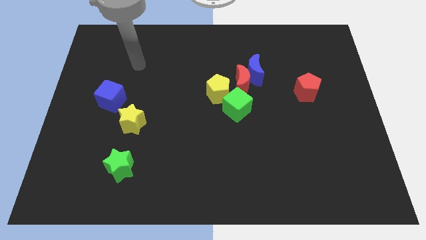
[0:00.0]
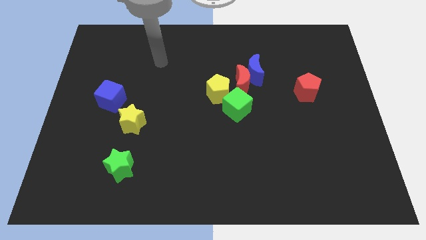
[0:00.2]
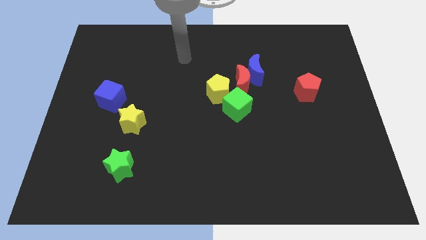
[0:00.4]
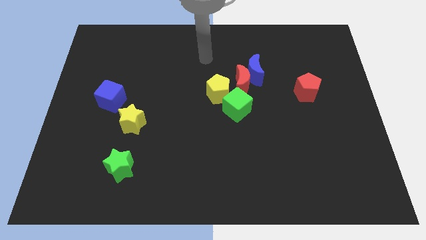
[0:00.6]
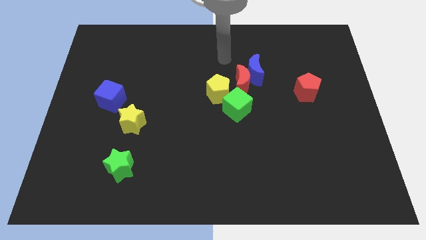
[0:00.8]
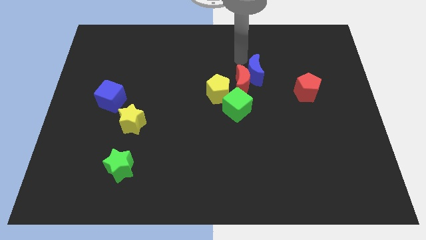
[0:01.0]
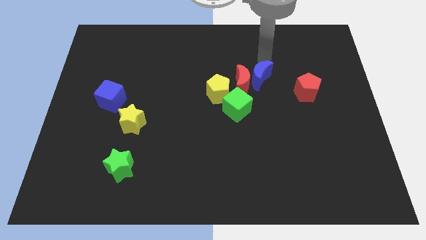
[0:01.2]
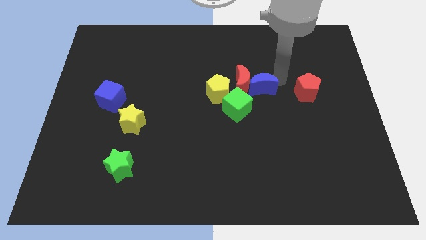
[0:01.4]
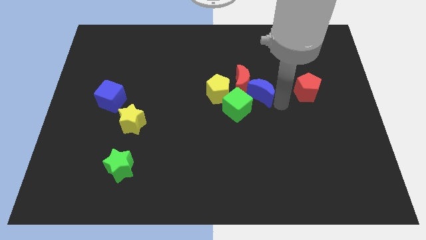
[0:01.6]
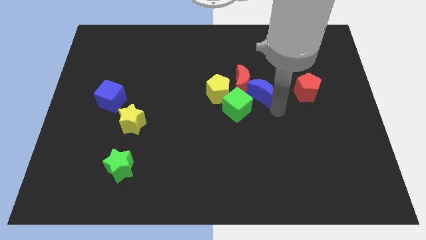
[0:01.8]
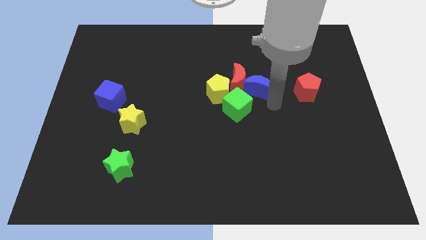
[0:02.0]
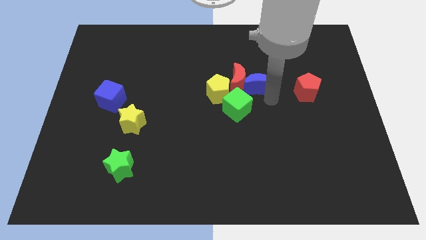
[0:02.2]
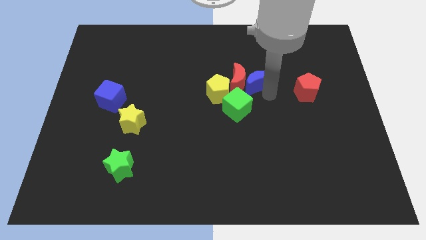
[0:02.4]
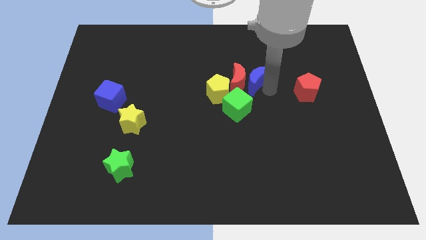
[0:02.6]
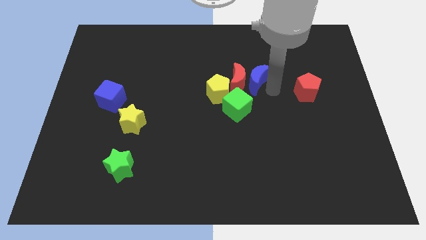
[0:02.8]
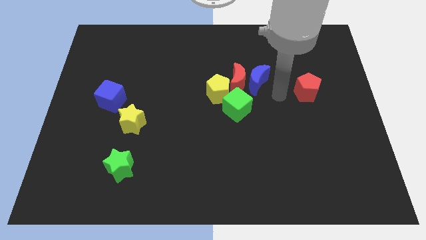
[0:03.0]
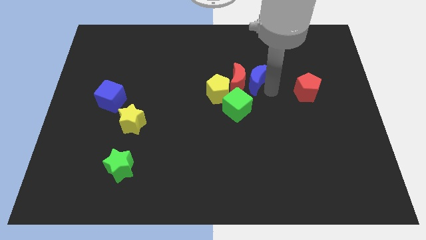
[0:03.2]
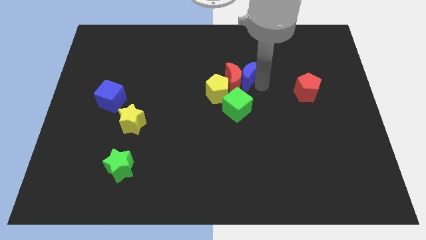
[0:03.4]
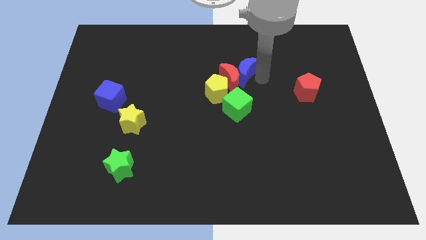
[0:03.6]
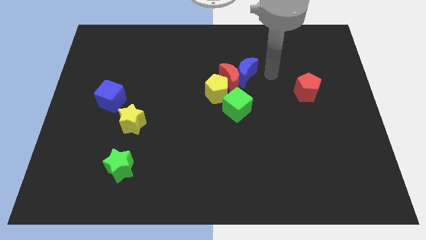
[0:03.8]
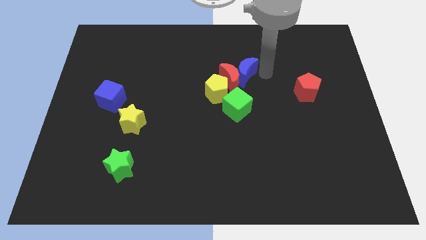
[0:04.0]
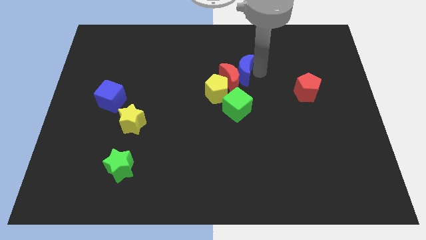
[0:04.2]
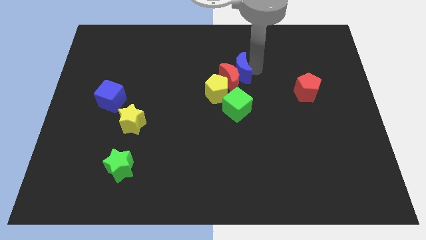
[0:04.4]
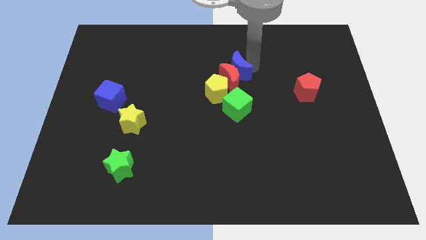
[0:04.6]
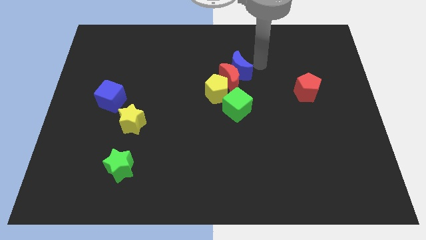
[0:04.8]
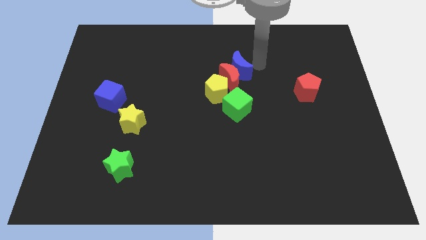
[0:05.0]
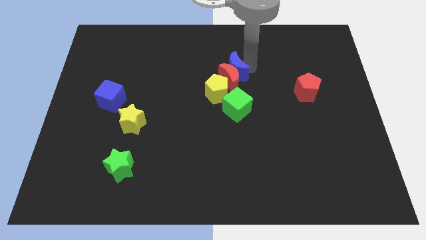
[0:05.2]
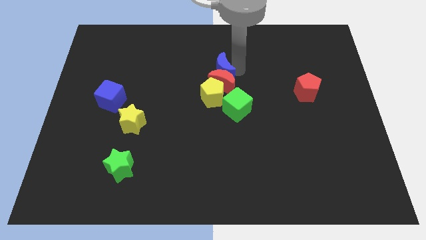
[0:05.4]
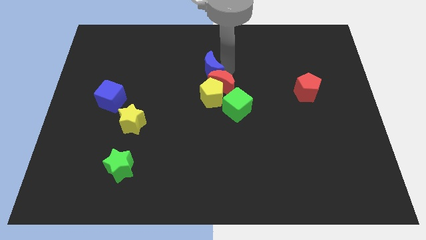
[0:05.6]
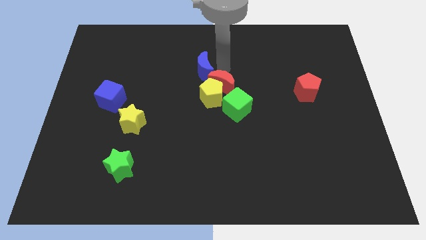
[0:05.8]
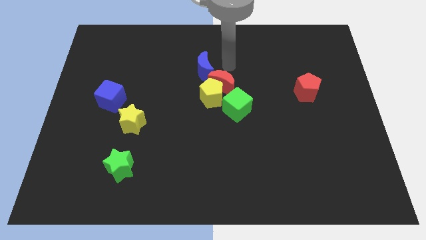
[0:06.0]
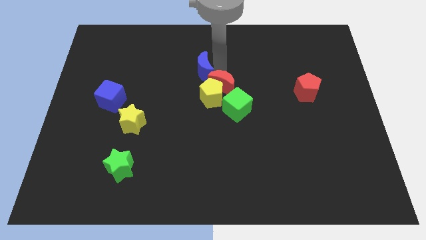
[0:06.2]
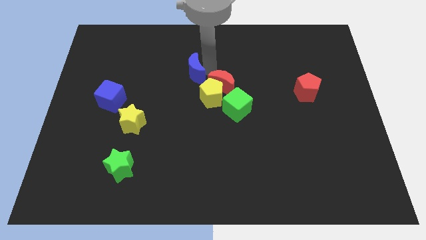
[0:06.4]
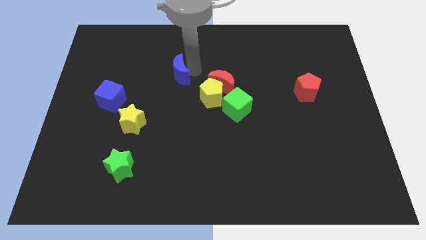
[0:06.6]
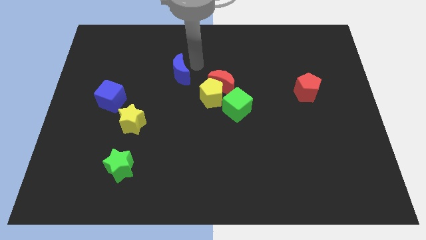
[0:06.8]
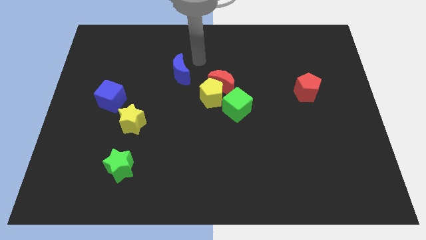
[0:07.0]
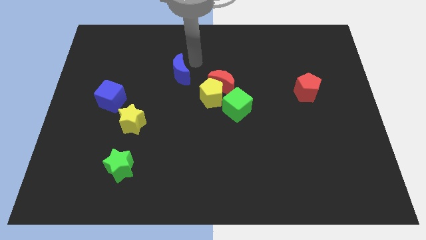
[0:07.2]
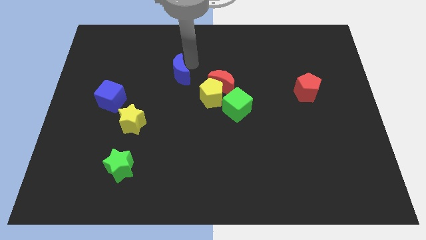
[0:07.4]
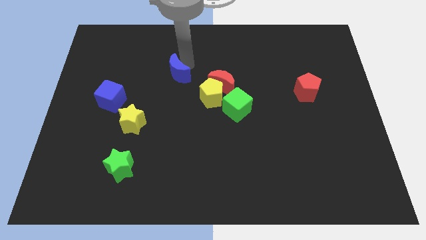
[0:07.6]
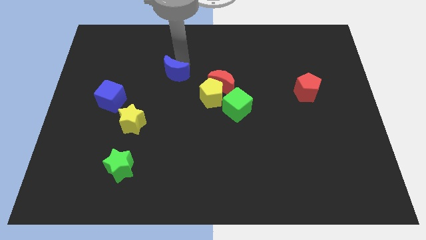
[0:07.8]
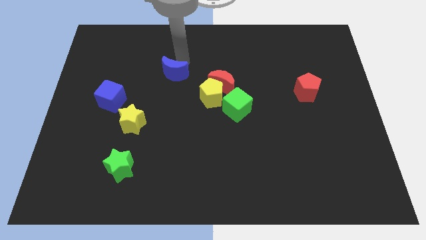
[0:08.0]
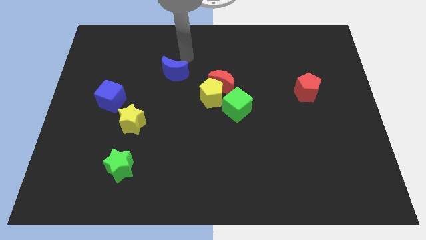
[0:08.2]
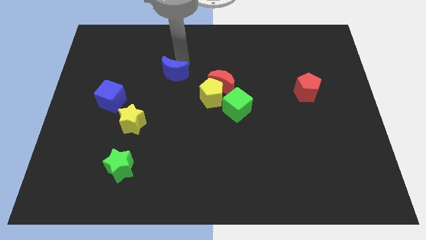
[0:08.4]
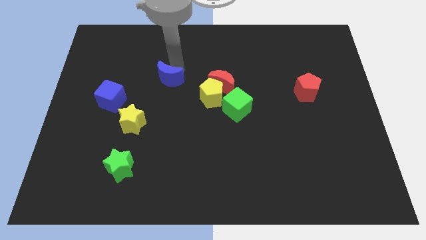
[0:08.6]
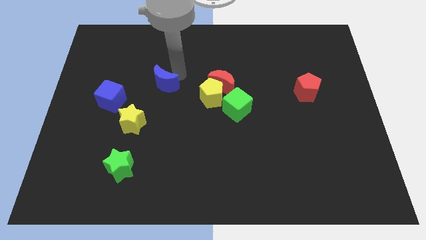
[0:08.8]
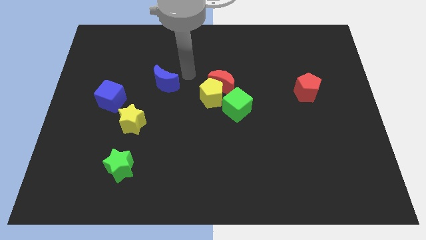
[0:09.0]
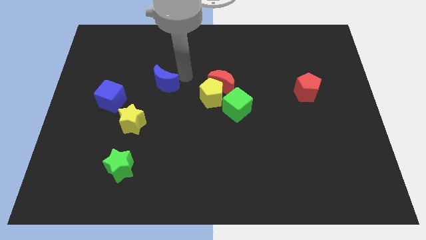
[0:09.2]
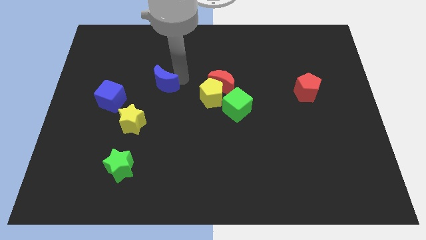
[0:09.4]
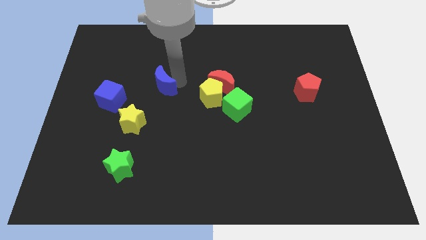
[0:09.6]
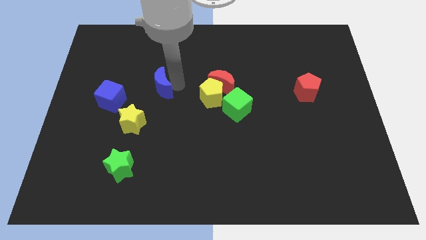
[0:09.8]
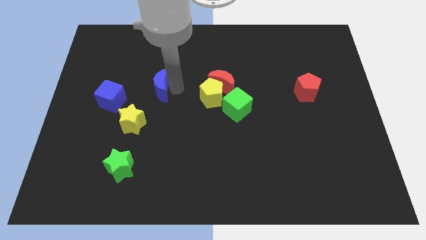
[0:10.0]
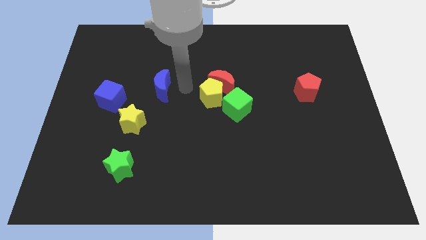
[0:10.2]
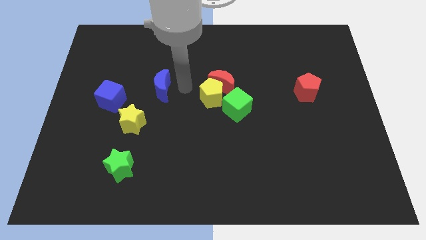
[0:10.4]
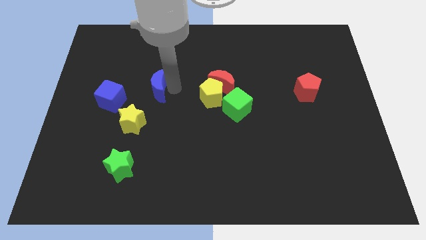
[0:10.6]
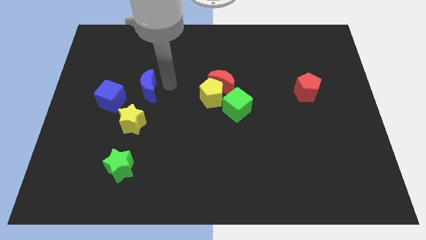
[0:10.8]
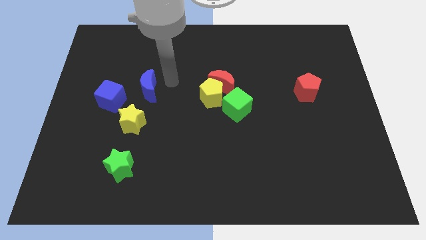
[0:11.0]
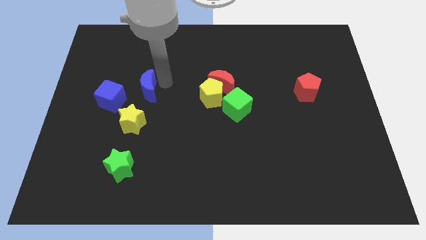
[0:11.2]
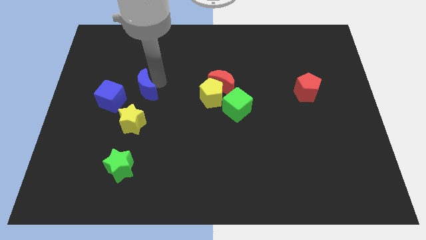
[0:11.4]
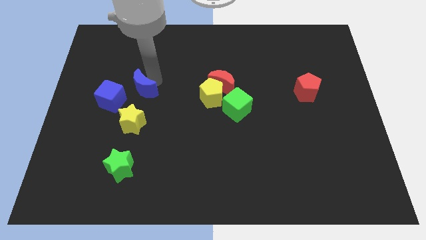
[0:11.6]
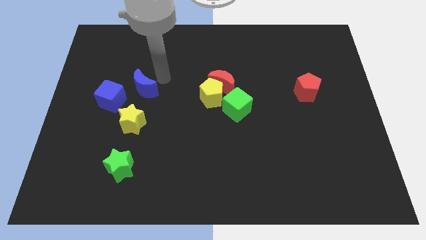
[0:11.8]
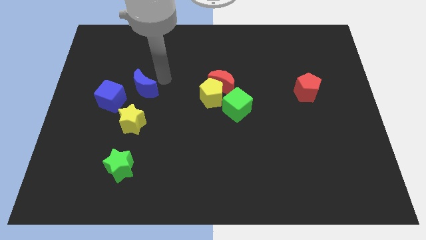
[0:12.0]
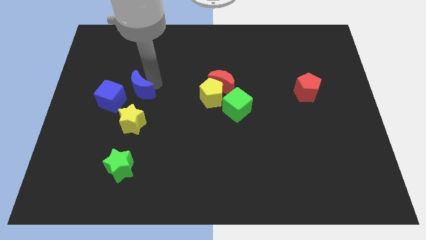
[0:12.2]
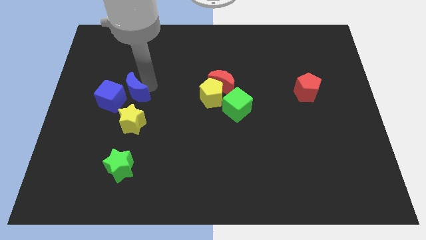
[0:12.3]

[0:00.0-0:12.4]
slide the blue moon to the blue cube

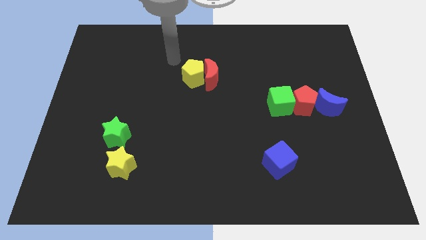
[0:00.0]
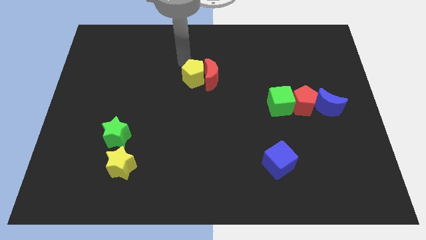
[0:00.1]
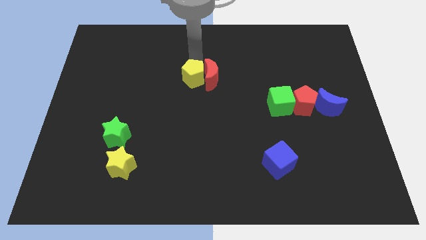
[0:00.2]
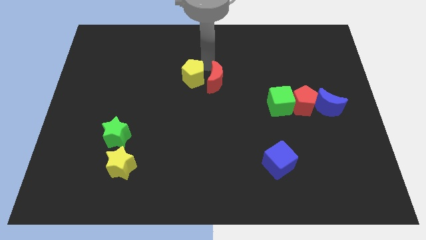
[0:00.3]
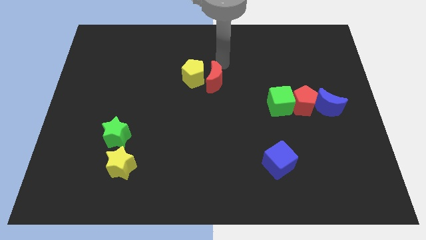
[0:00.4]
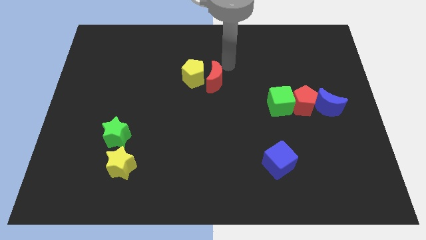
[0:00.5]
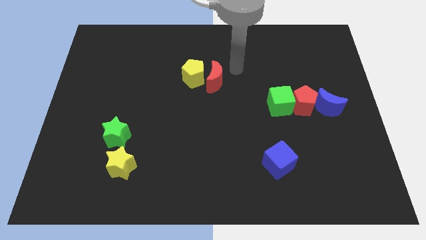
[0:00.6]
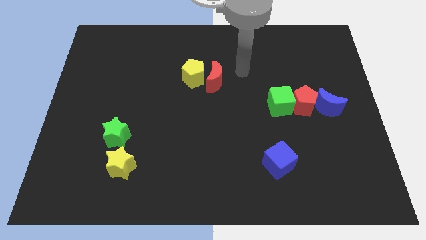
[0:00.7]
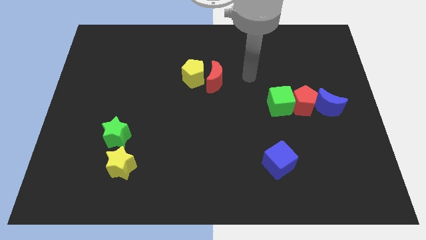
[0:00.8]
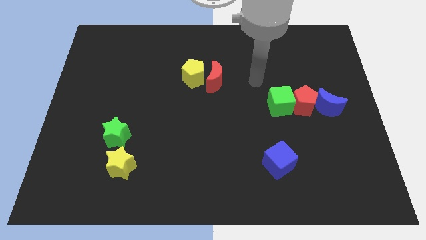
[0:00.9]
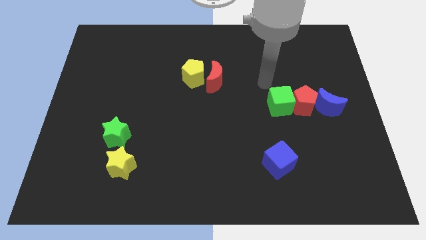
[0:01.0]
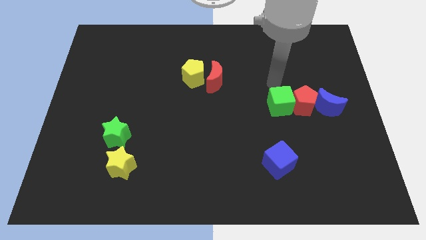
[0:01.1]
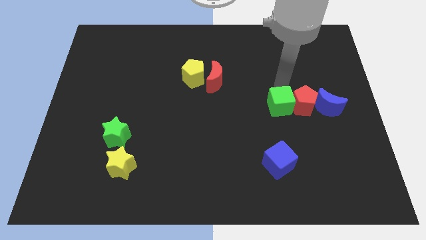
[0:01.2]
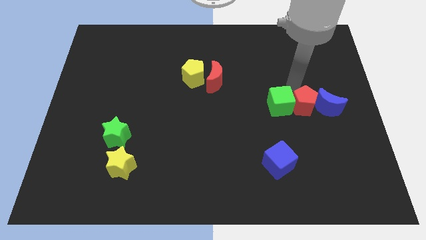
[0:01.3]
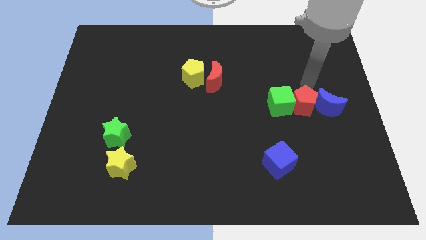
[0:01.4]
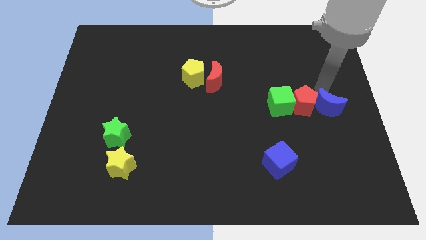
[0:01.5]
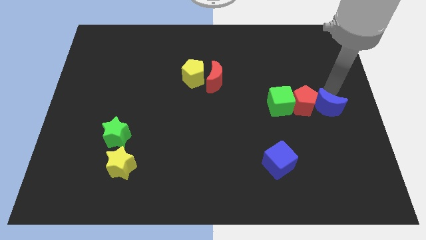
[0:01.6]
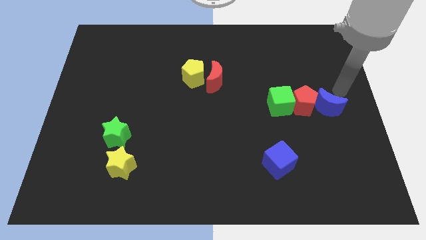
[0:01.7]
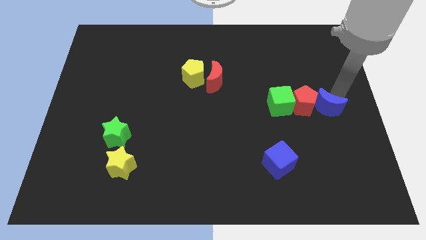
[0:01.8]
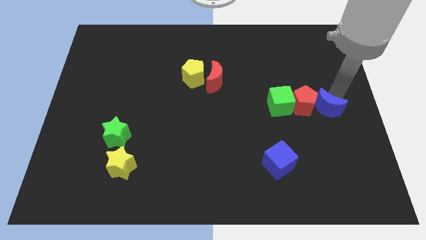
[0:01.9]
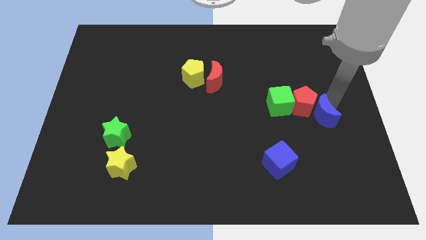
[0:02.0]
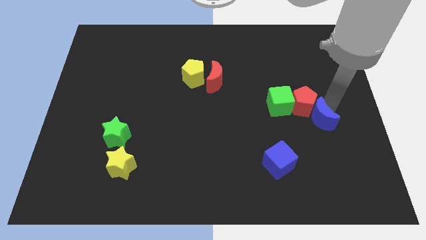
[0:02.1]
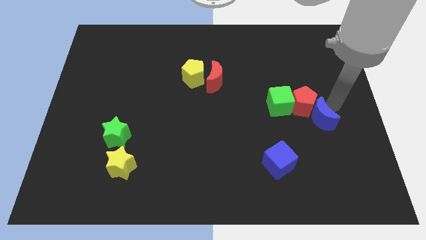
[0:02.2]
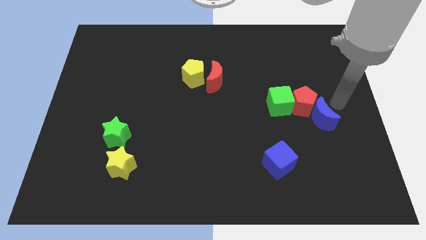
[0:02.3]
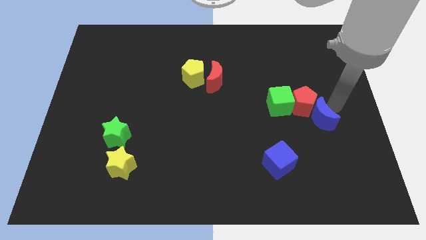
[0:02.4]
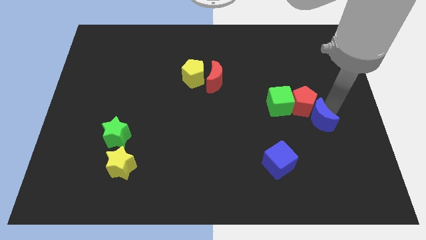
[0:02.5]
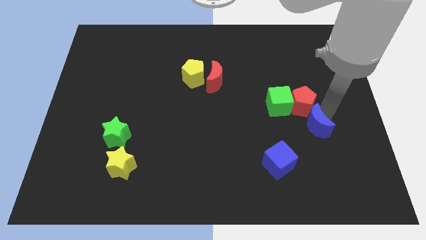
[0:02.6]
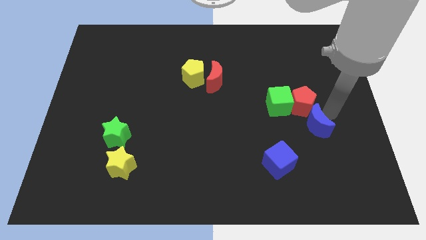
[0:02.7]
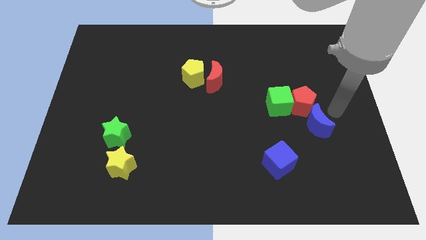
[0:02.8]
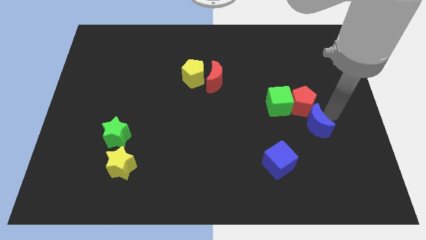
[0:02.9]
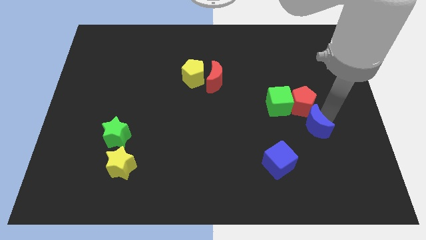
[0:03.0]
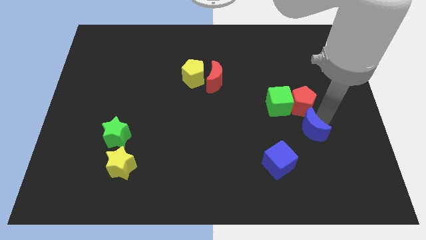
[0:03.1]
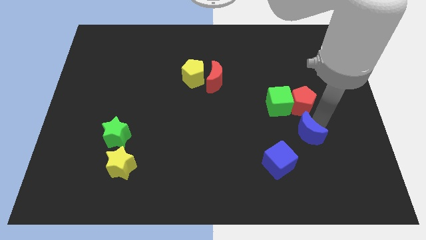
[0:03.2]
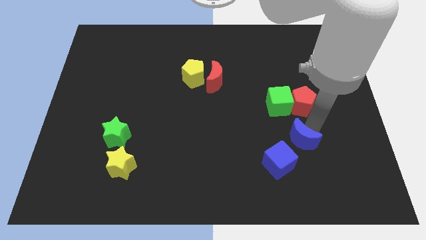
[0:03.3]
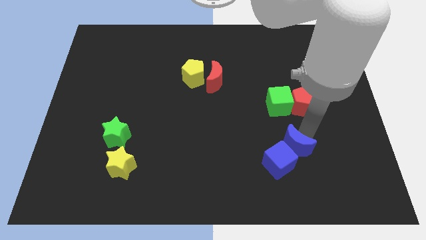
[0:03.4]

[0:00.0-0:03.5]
move the blue moon close to the blue cube
